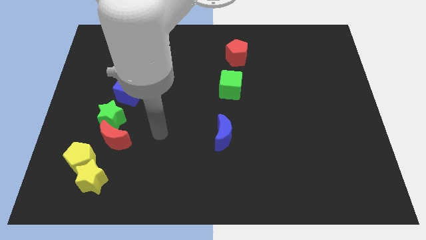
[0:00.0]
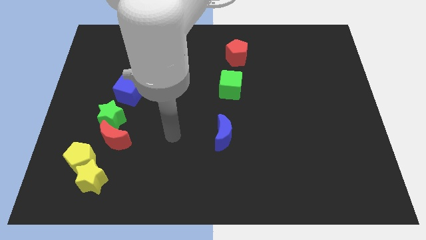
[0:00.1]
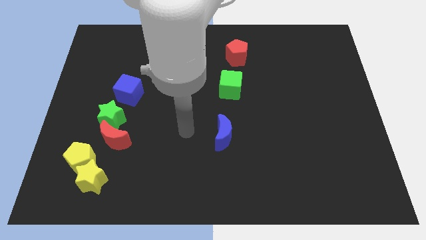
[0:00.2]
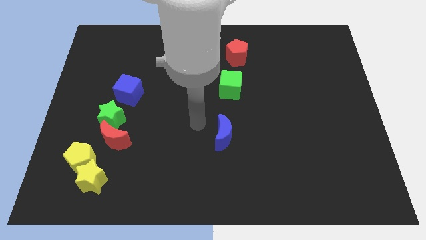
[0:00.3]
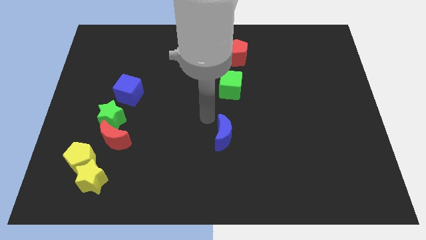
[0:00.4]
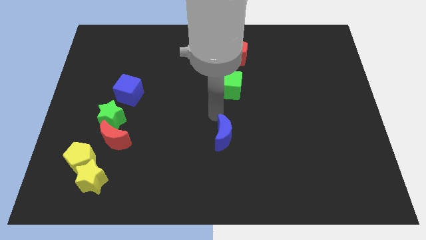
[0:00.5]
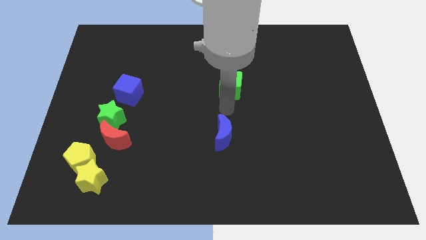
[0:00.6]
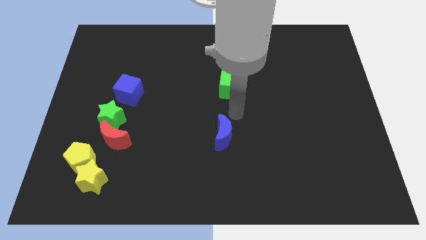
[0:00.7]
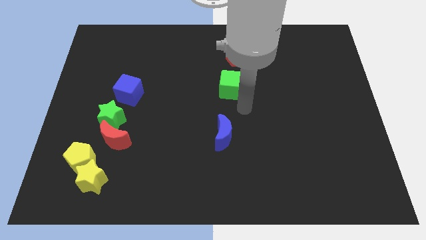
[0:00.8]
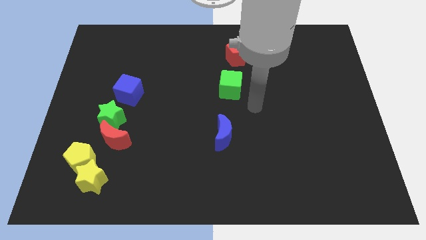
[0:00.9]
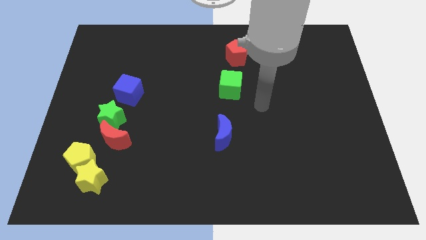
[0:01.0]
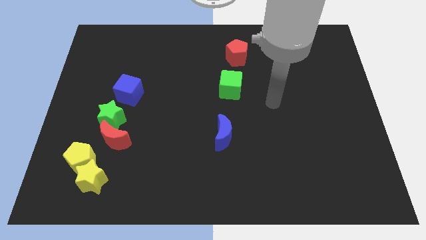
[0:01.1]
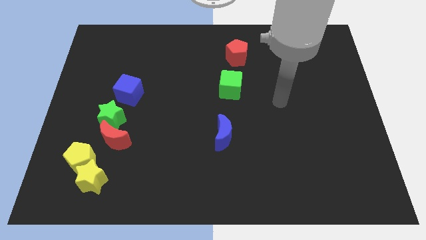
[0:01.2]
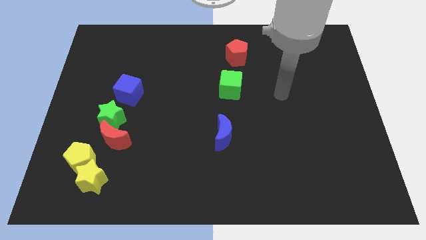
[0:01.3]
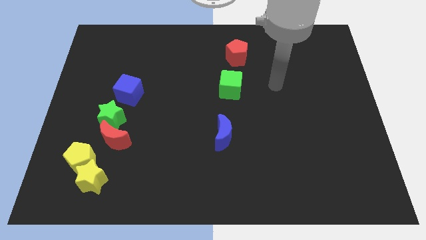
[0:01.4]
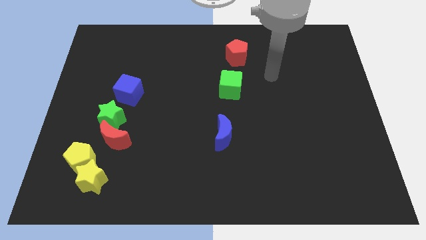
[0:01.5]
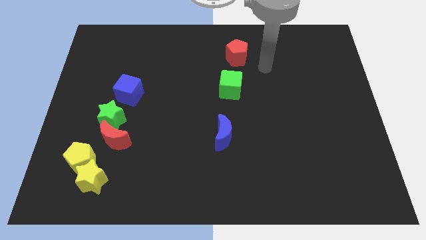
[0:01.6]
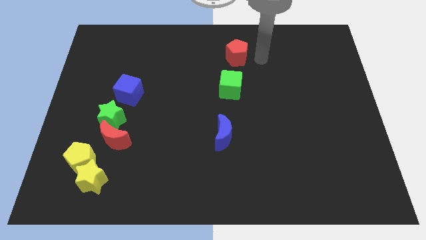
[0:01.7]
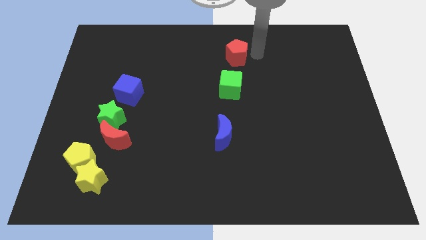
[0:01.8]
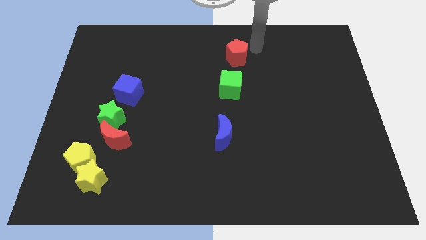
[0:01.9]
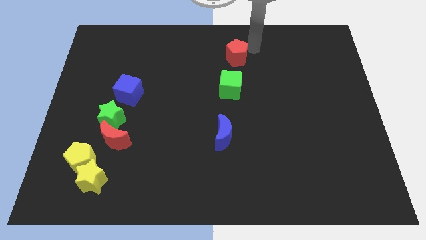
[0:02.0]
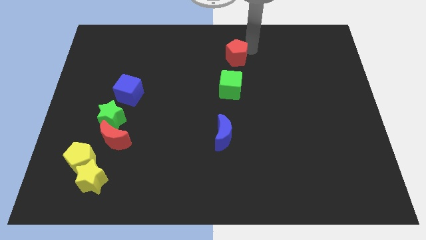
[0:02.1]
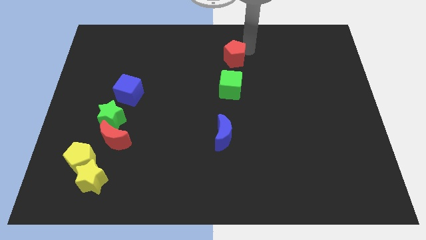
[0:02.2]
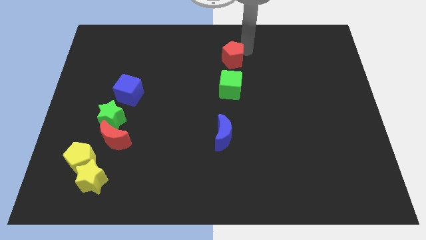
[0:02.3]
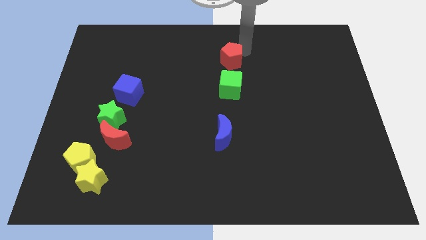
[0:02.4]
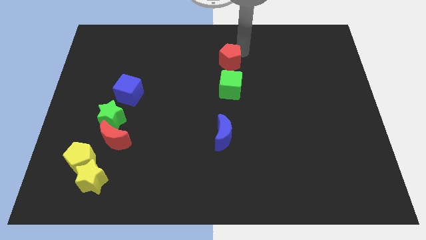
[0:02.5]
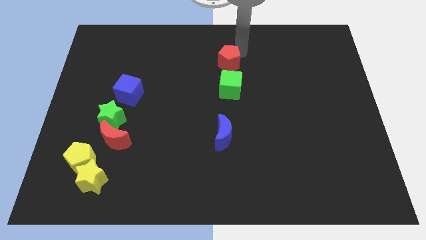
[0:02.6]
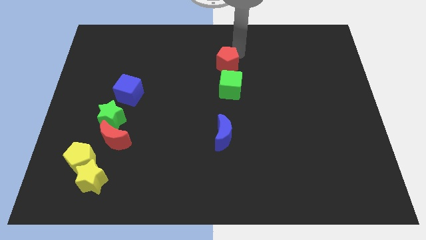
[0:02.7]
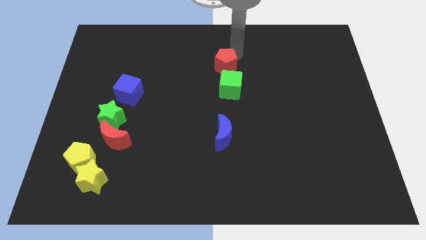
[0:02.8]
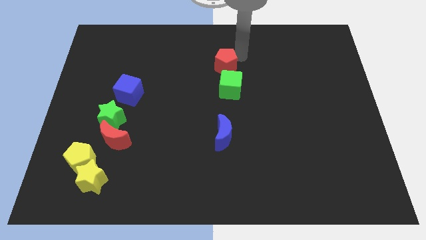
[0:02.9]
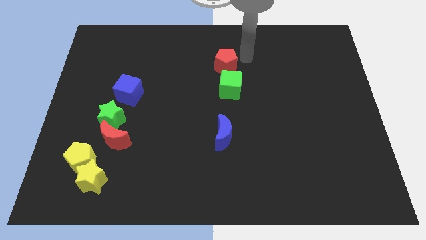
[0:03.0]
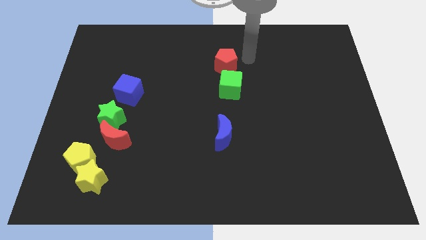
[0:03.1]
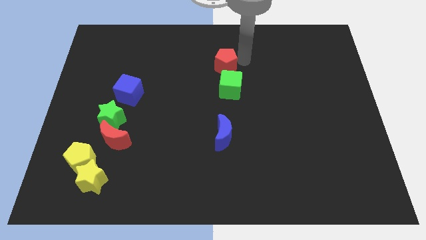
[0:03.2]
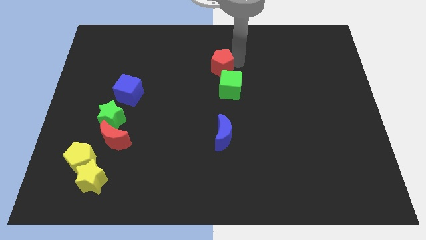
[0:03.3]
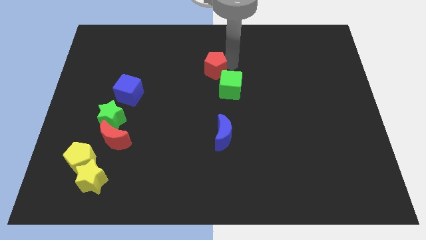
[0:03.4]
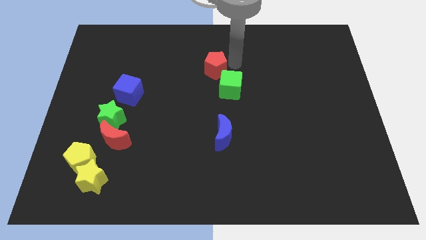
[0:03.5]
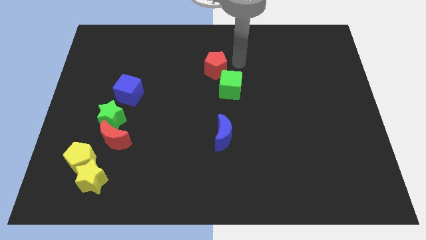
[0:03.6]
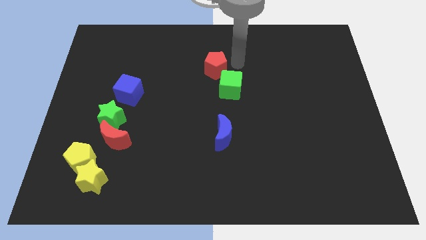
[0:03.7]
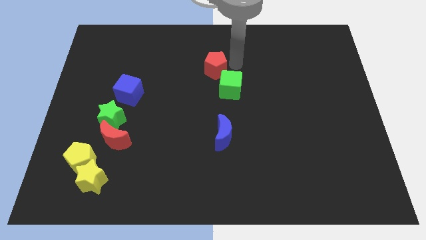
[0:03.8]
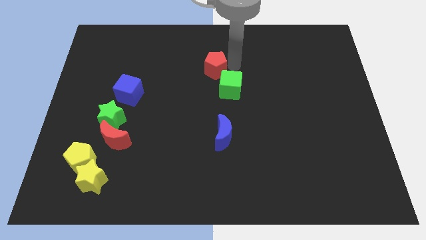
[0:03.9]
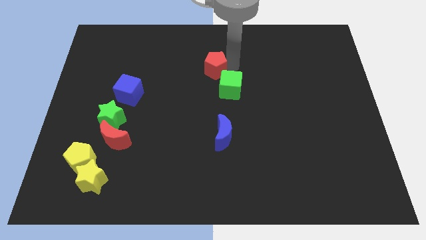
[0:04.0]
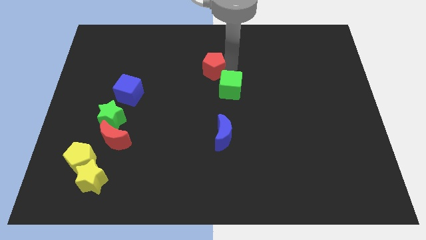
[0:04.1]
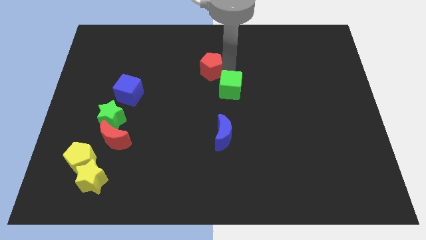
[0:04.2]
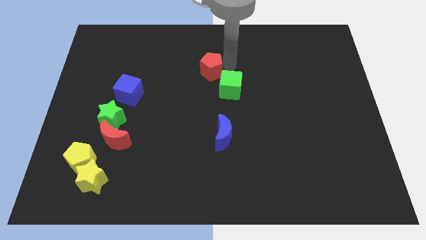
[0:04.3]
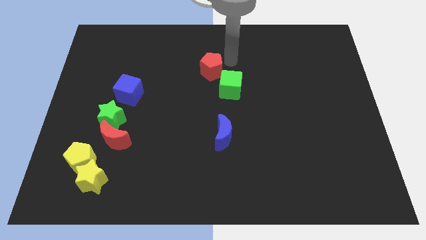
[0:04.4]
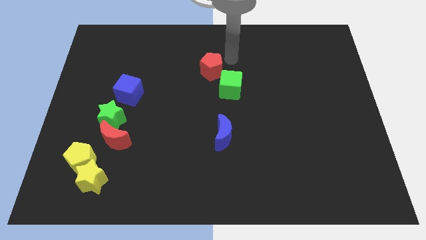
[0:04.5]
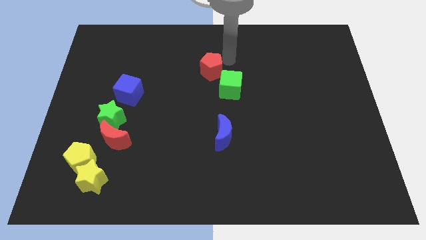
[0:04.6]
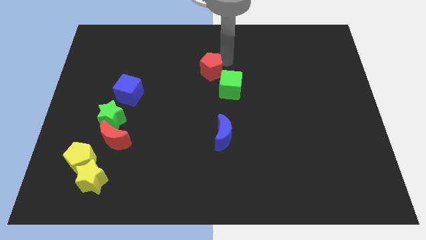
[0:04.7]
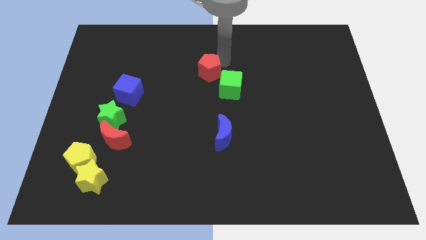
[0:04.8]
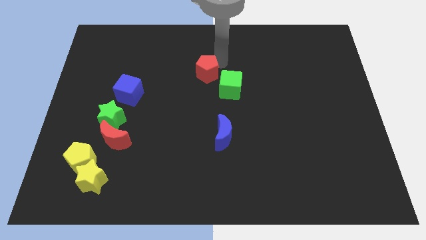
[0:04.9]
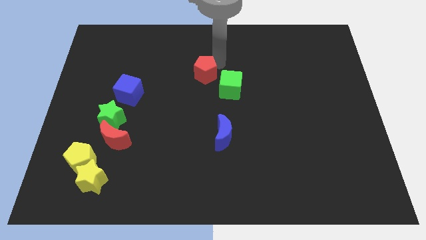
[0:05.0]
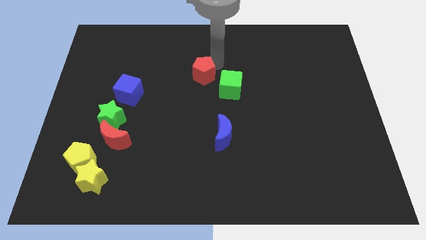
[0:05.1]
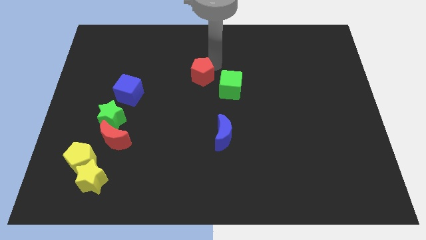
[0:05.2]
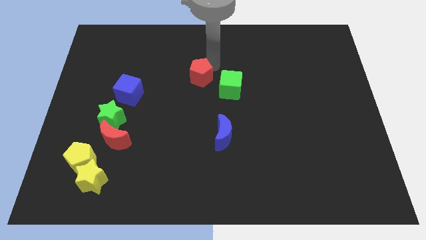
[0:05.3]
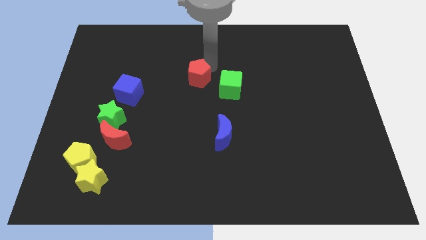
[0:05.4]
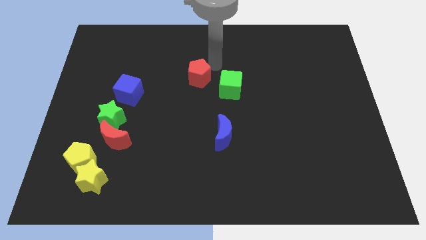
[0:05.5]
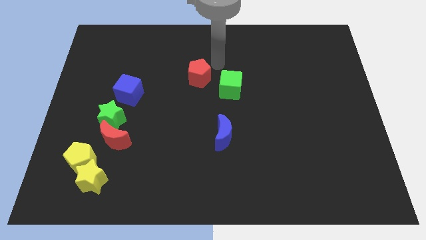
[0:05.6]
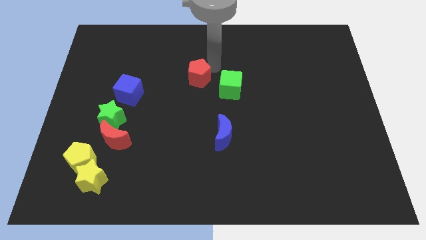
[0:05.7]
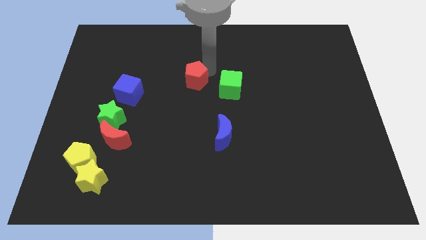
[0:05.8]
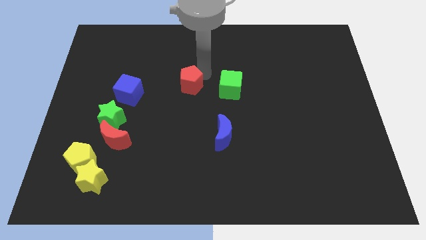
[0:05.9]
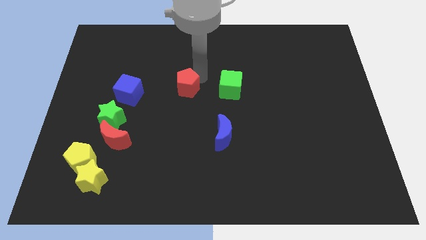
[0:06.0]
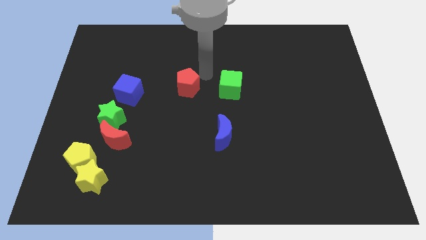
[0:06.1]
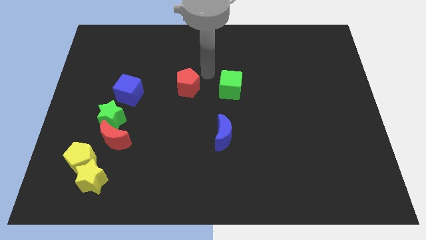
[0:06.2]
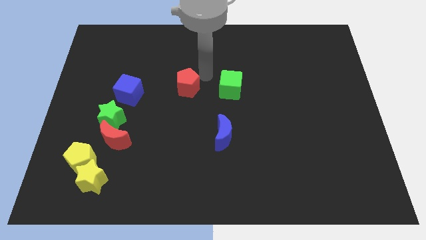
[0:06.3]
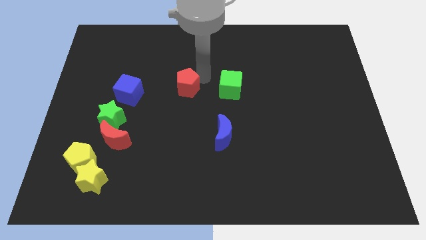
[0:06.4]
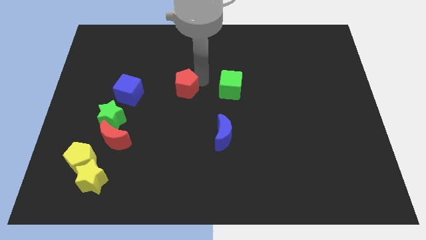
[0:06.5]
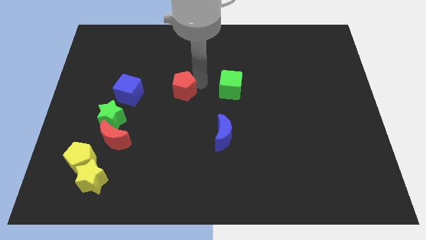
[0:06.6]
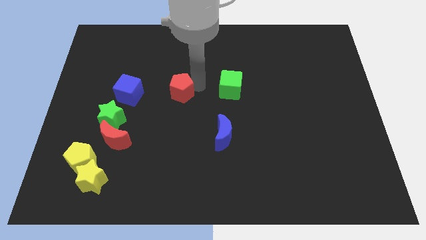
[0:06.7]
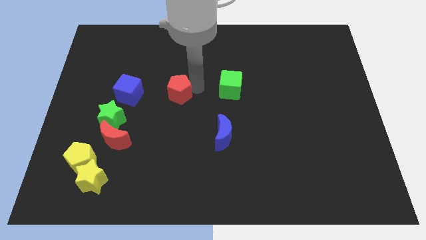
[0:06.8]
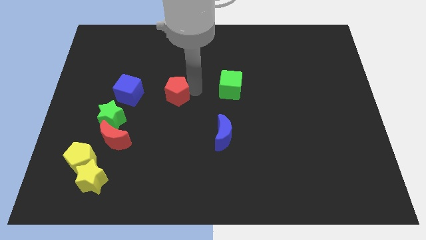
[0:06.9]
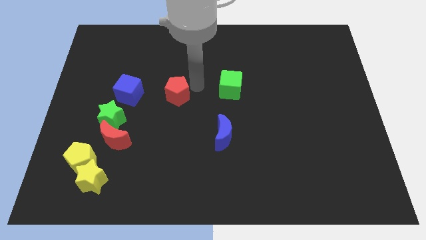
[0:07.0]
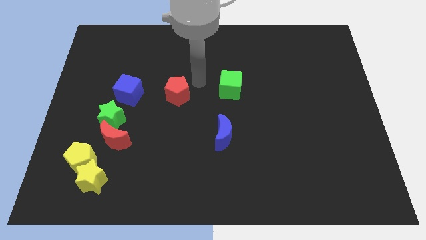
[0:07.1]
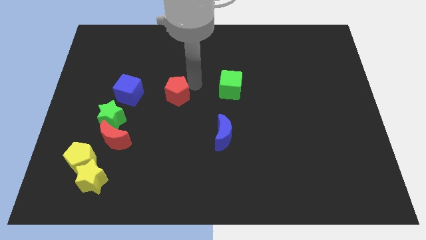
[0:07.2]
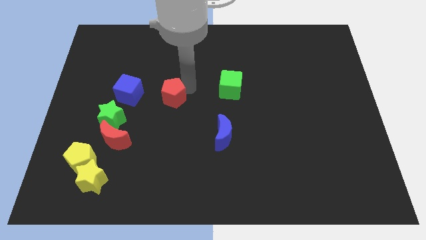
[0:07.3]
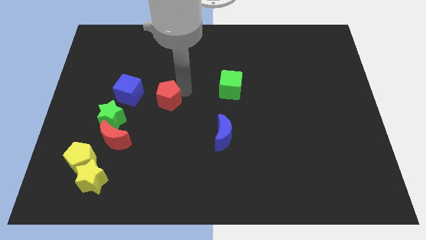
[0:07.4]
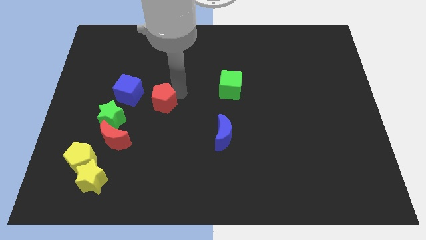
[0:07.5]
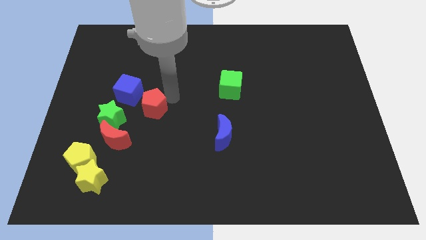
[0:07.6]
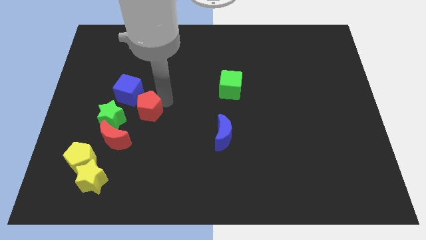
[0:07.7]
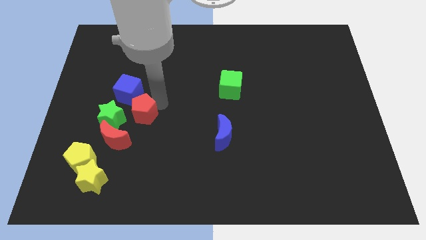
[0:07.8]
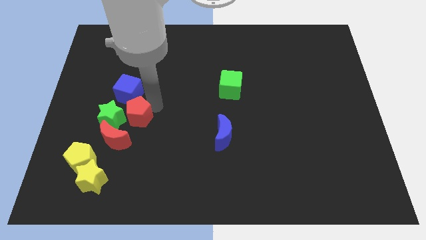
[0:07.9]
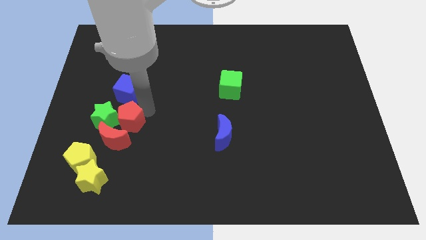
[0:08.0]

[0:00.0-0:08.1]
put the red pentagon close to the red moon
